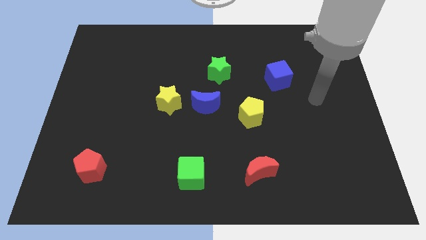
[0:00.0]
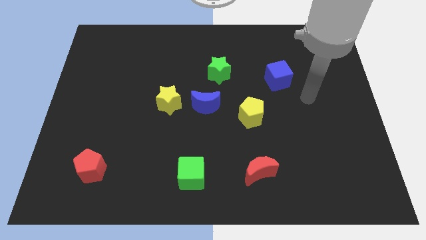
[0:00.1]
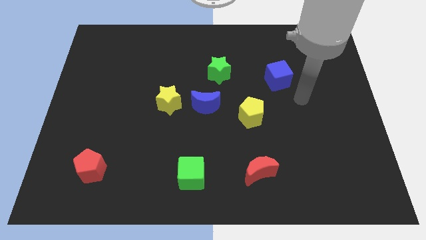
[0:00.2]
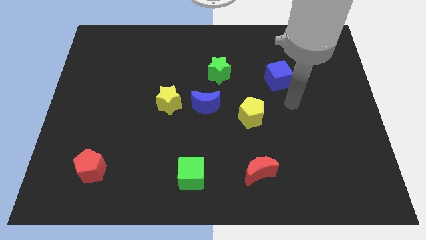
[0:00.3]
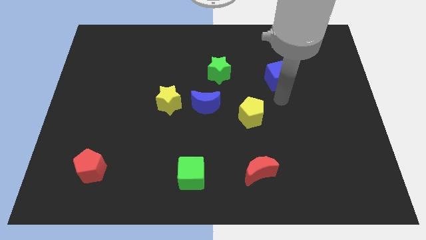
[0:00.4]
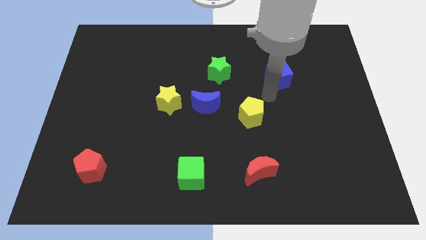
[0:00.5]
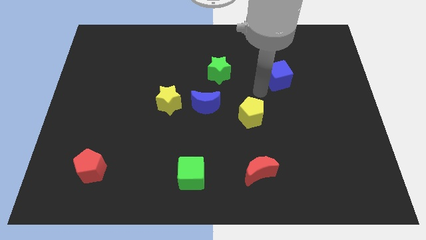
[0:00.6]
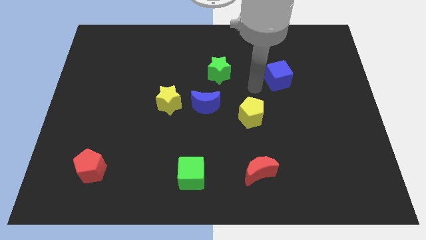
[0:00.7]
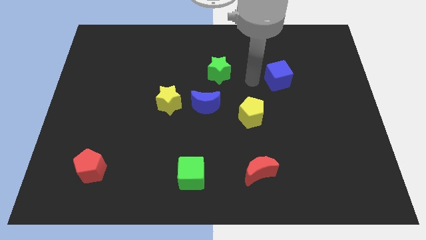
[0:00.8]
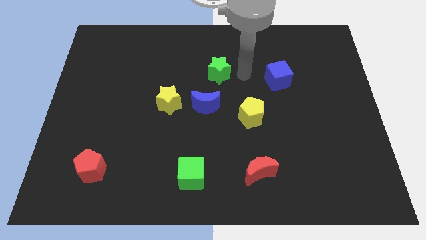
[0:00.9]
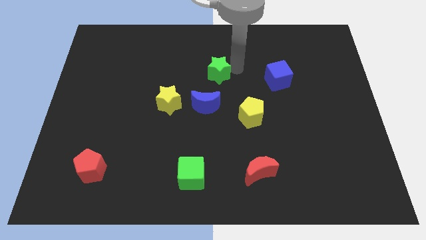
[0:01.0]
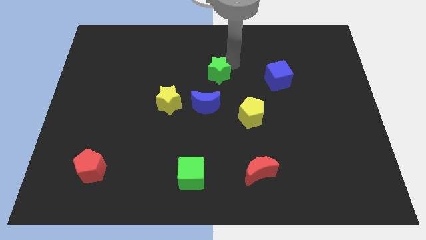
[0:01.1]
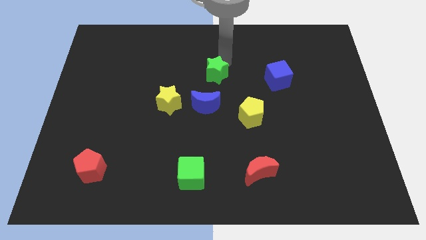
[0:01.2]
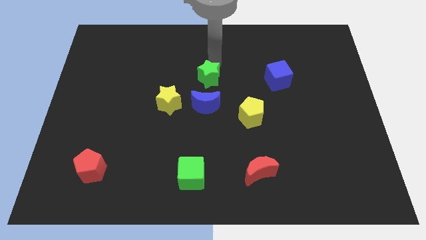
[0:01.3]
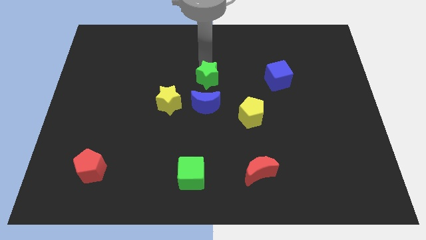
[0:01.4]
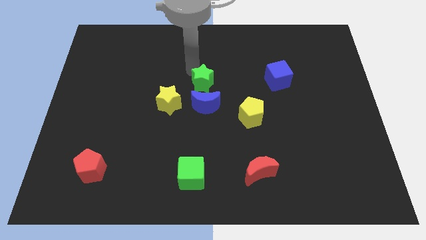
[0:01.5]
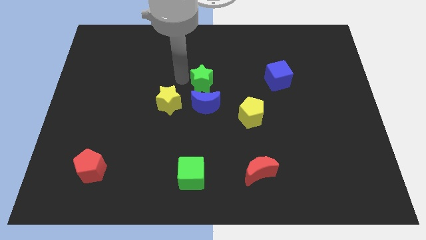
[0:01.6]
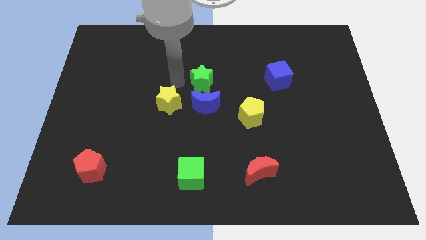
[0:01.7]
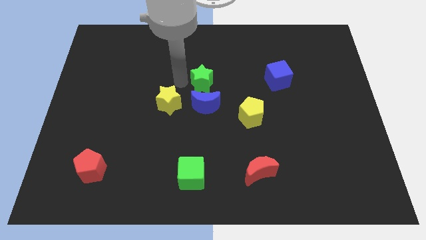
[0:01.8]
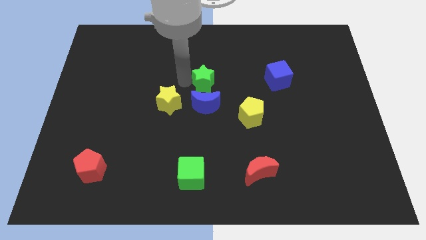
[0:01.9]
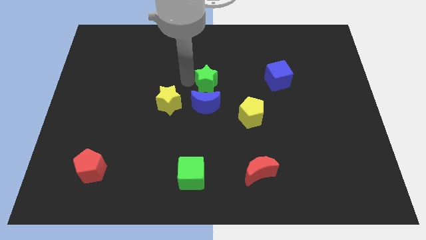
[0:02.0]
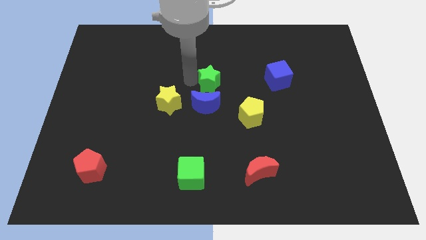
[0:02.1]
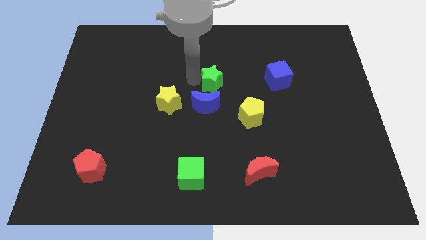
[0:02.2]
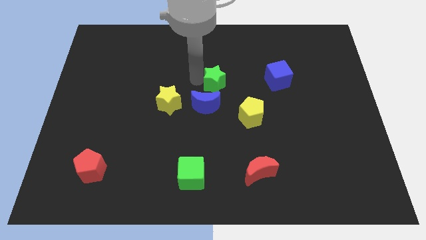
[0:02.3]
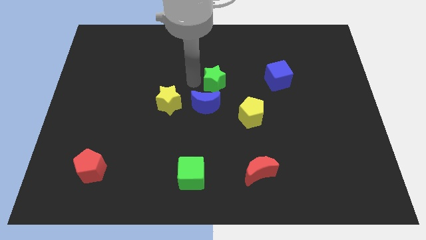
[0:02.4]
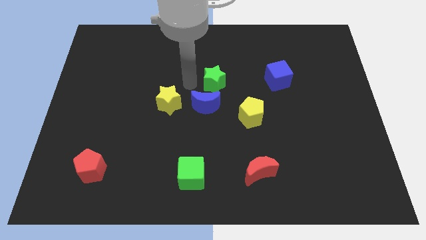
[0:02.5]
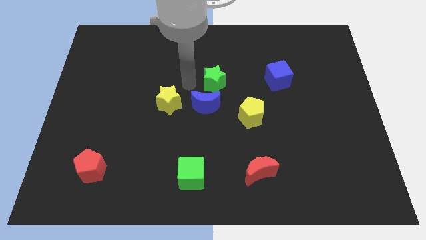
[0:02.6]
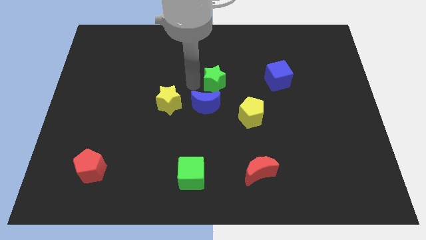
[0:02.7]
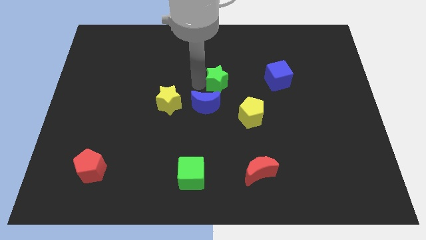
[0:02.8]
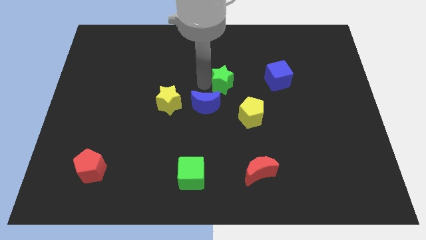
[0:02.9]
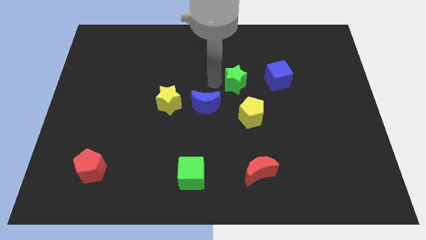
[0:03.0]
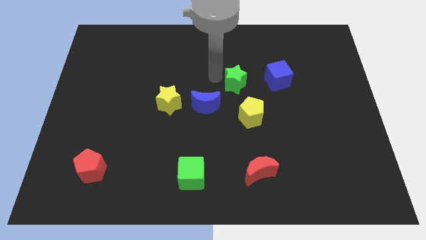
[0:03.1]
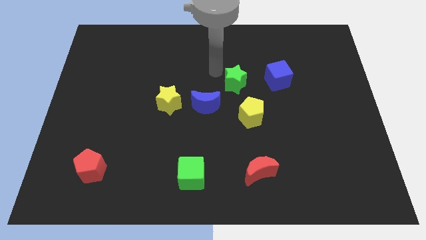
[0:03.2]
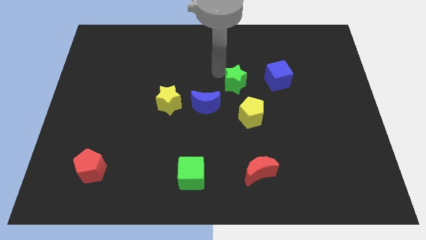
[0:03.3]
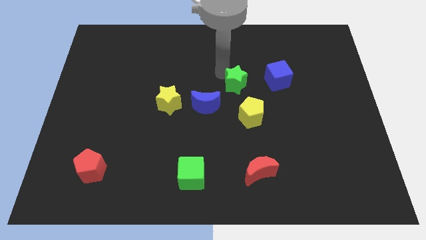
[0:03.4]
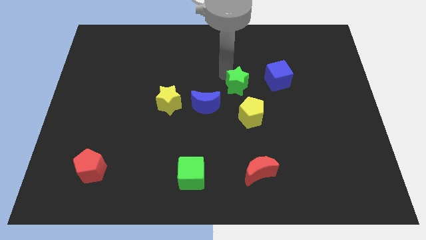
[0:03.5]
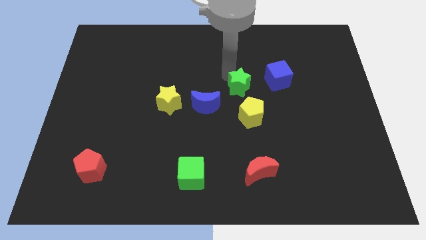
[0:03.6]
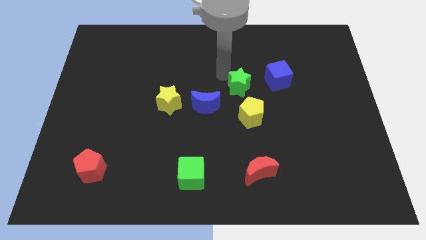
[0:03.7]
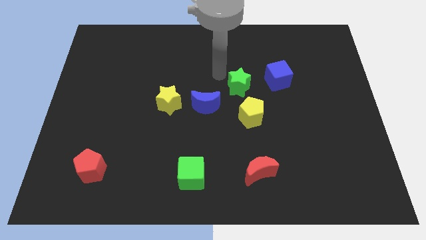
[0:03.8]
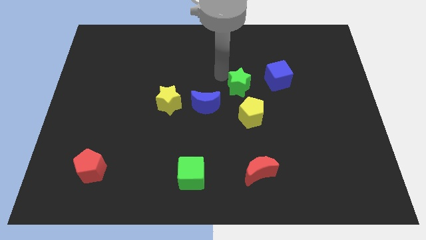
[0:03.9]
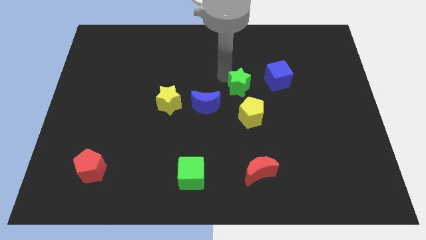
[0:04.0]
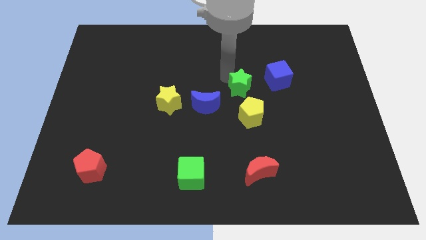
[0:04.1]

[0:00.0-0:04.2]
slide the green star downwards and to the right diagonally somewhat

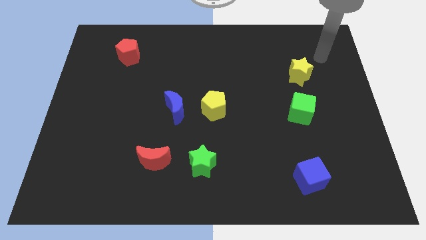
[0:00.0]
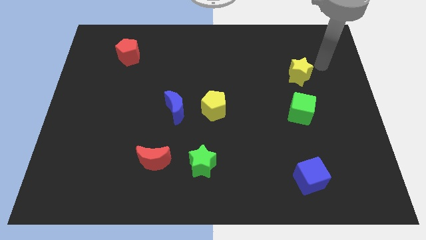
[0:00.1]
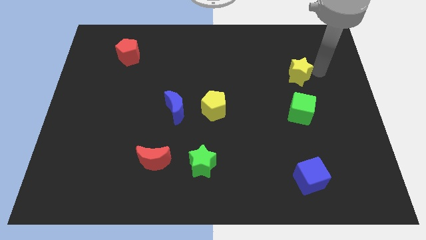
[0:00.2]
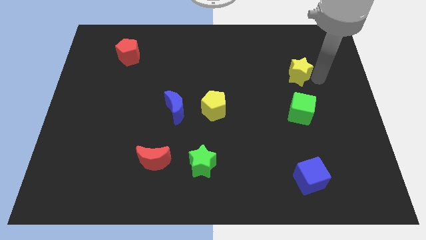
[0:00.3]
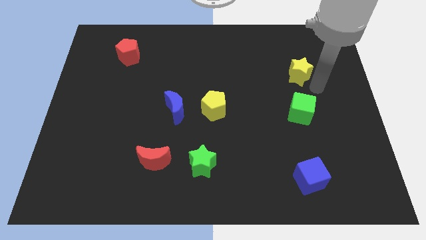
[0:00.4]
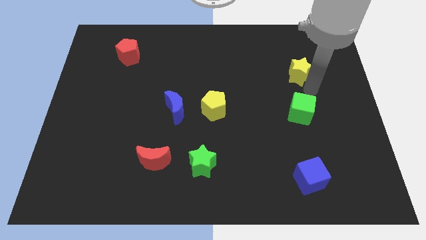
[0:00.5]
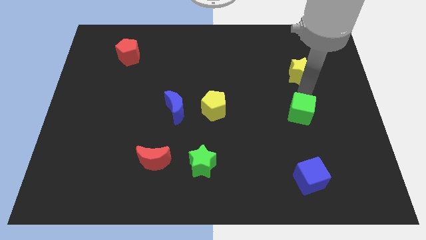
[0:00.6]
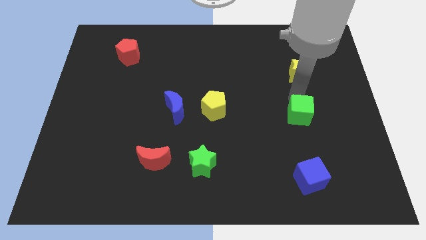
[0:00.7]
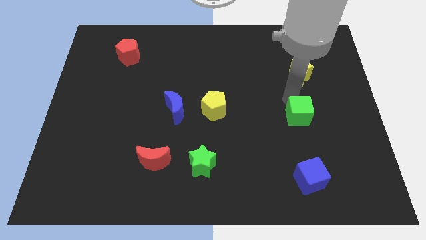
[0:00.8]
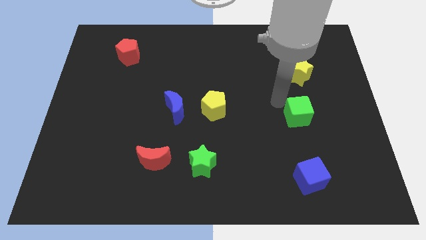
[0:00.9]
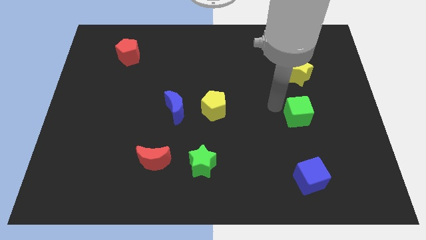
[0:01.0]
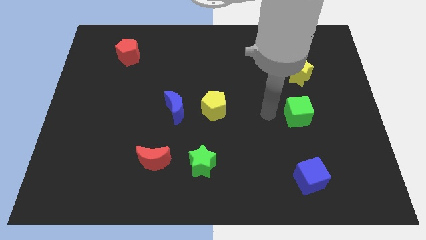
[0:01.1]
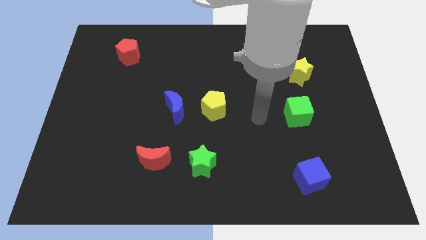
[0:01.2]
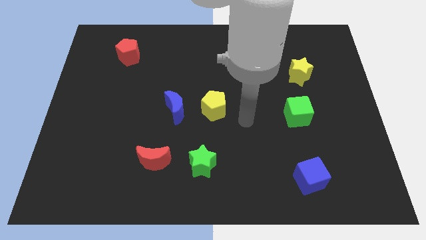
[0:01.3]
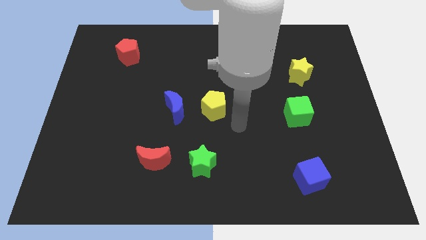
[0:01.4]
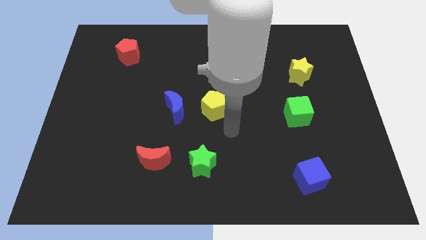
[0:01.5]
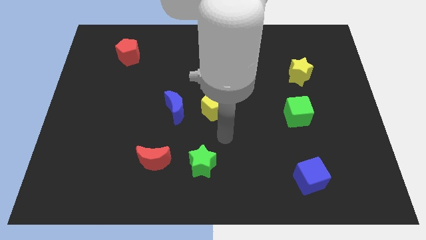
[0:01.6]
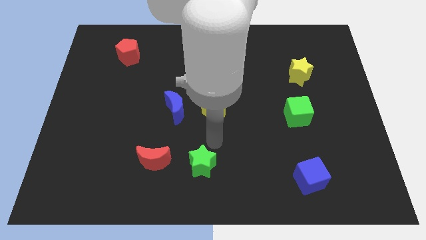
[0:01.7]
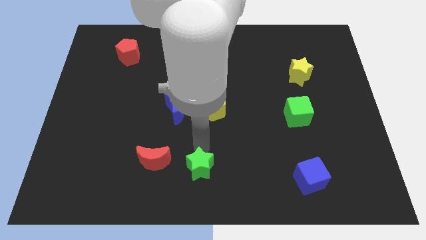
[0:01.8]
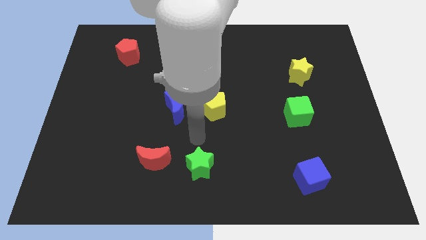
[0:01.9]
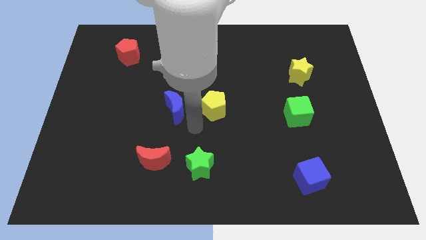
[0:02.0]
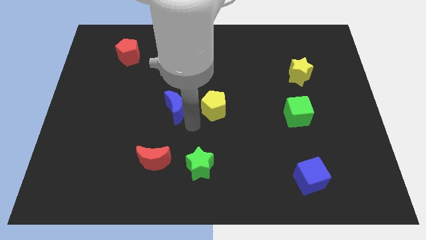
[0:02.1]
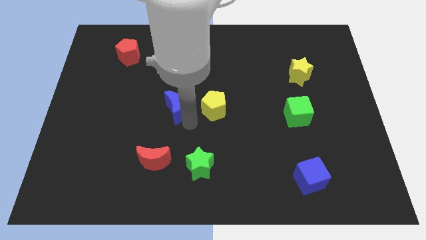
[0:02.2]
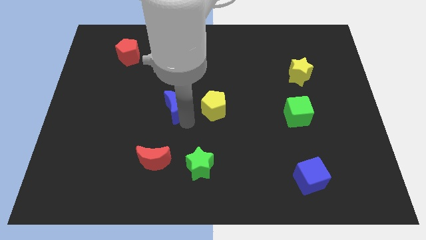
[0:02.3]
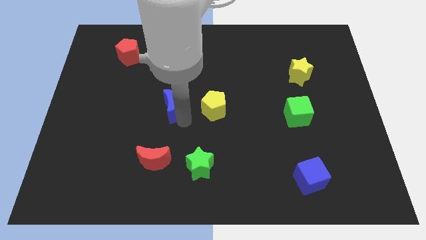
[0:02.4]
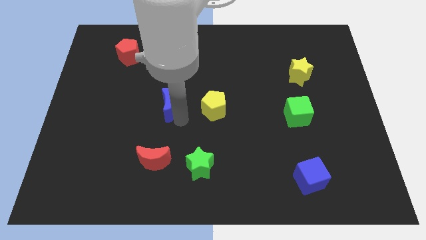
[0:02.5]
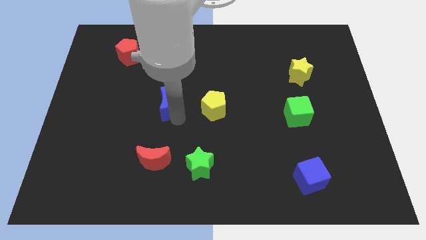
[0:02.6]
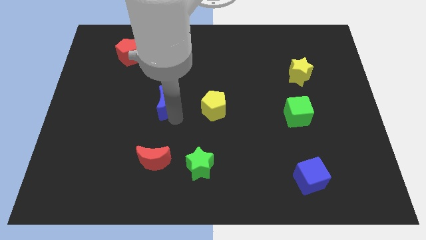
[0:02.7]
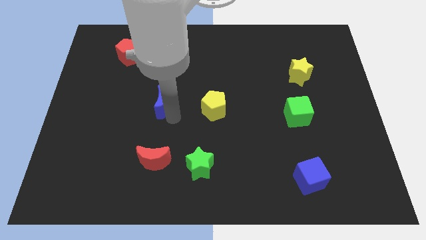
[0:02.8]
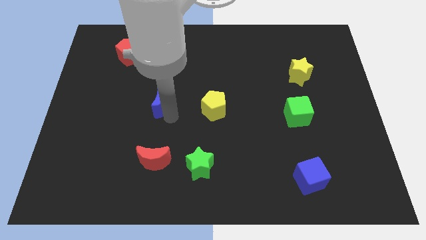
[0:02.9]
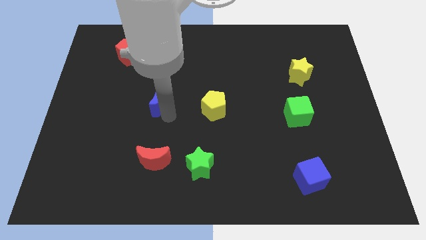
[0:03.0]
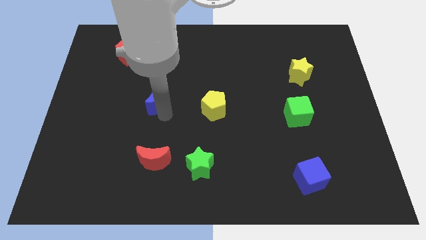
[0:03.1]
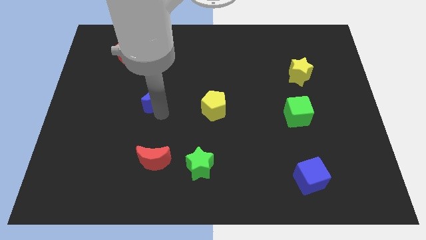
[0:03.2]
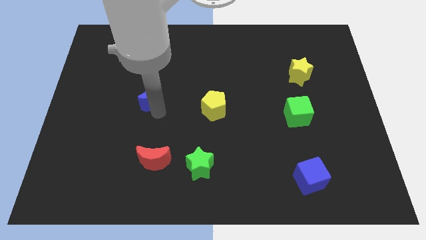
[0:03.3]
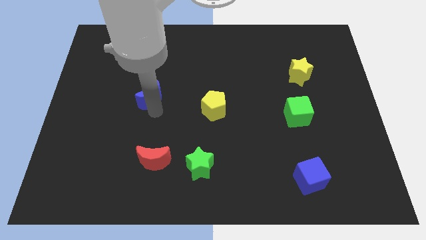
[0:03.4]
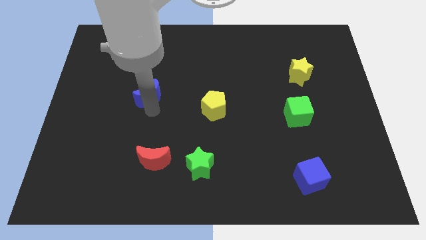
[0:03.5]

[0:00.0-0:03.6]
push the blue moon upwards and left diagonally a little bit
